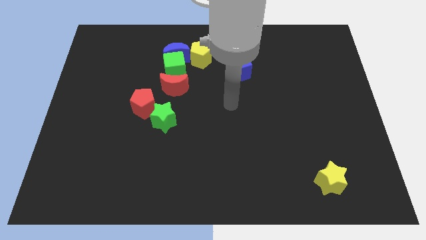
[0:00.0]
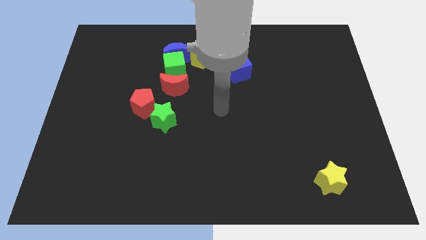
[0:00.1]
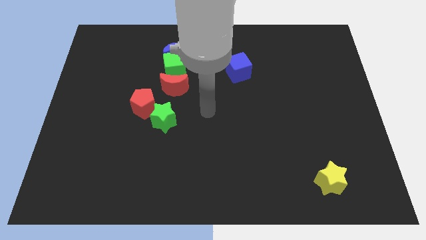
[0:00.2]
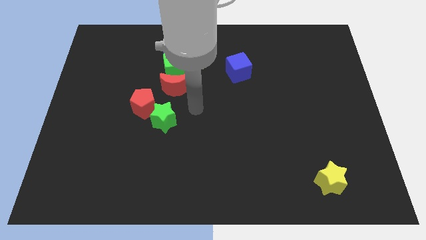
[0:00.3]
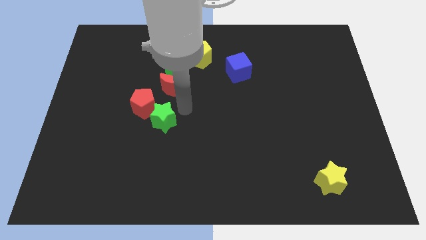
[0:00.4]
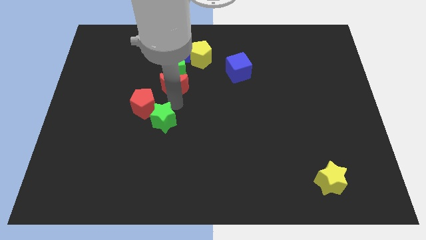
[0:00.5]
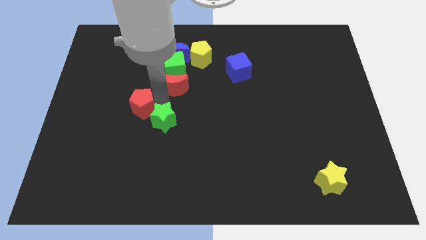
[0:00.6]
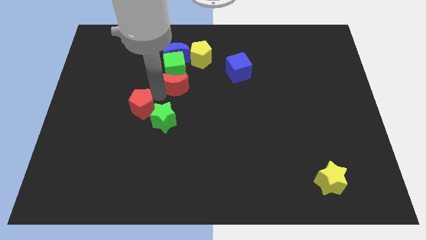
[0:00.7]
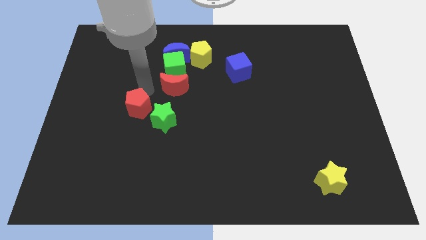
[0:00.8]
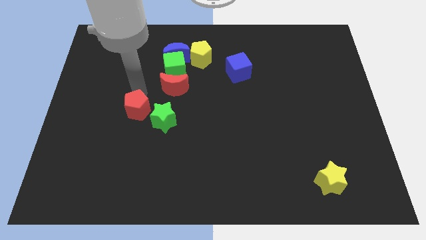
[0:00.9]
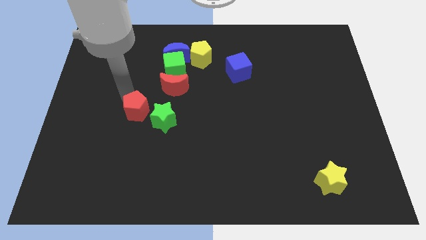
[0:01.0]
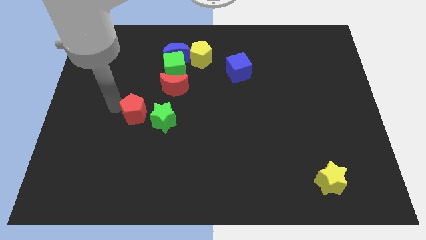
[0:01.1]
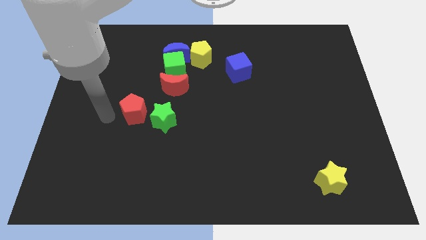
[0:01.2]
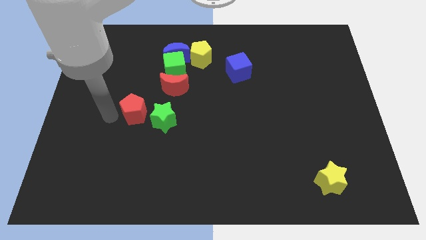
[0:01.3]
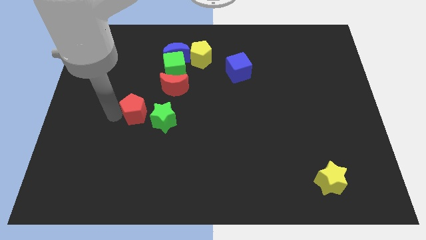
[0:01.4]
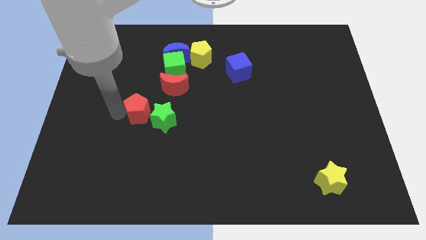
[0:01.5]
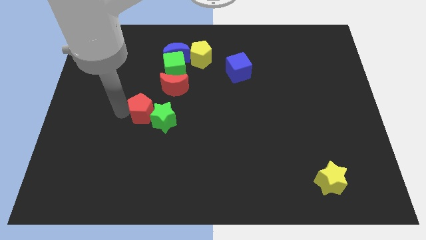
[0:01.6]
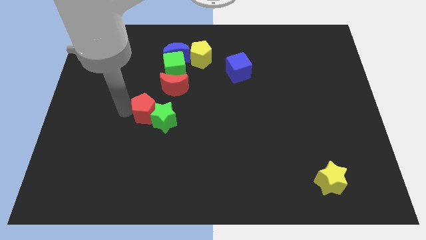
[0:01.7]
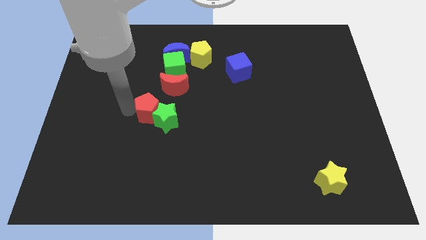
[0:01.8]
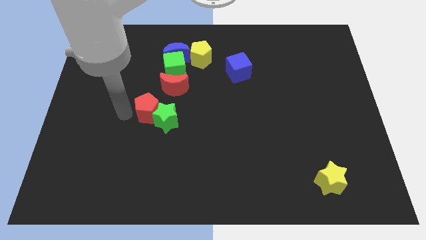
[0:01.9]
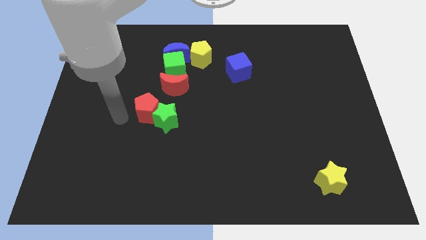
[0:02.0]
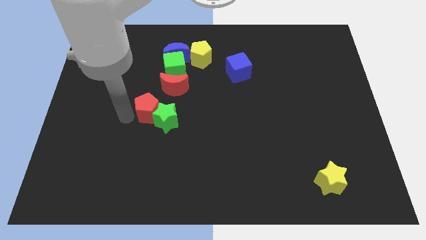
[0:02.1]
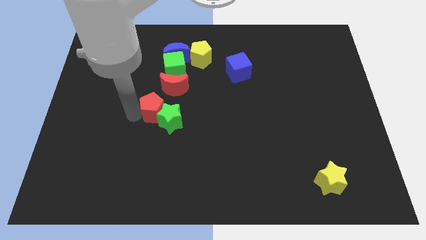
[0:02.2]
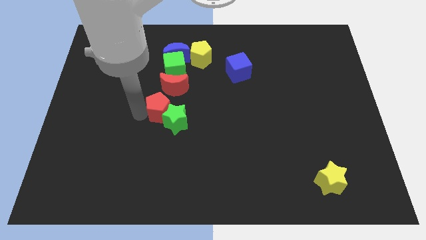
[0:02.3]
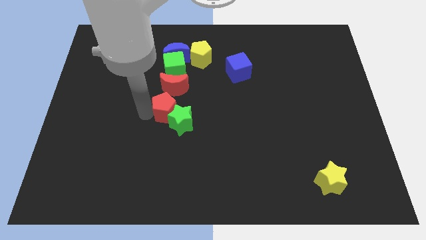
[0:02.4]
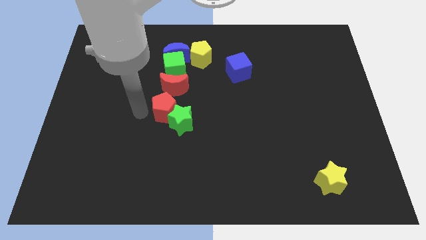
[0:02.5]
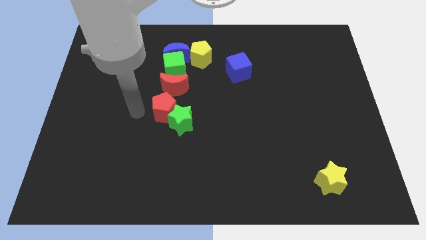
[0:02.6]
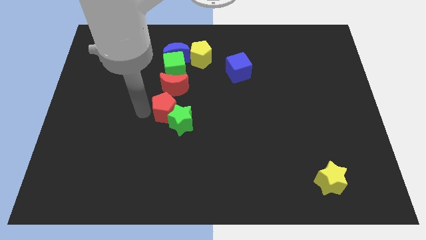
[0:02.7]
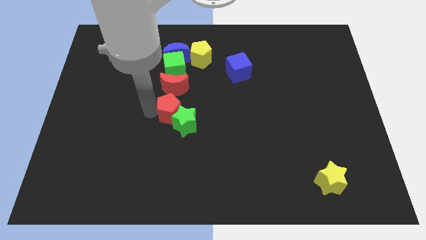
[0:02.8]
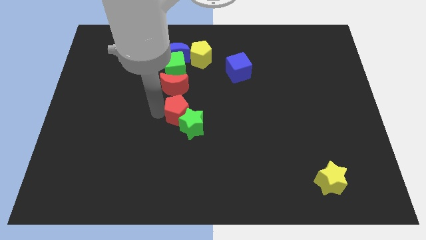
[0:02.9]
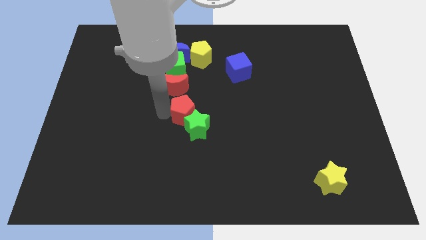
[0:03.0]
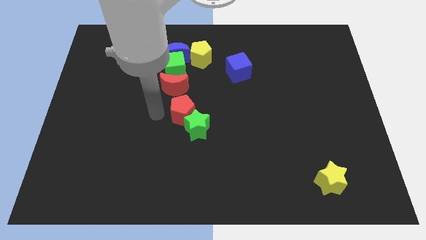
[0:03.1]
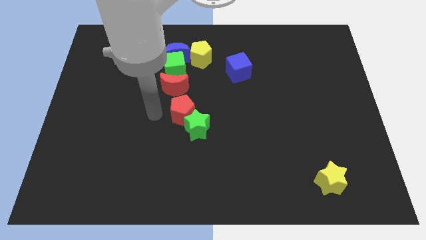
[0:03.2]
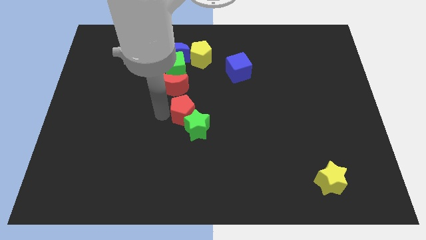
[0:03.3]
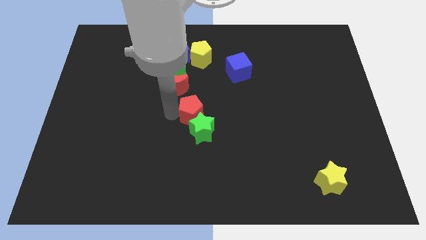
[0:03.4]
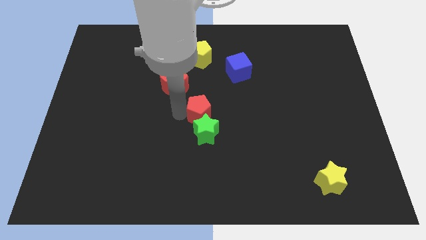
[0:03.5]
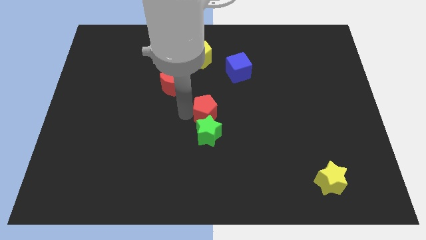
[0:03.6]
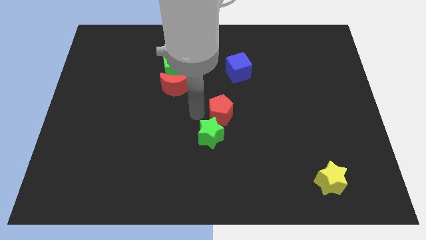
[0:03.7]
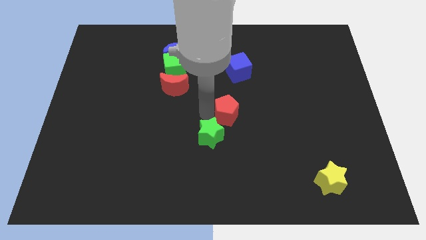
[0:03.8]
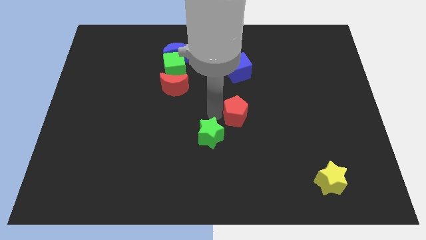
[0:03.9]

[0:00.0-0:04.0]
slide the red pentagon to the right

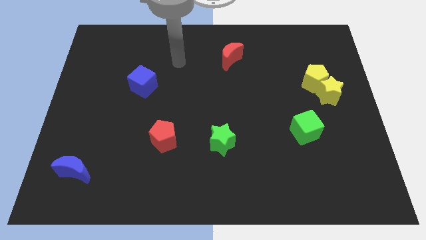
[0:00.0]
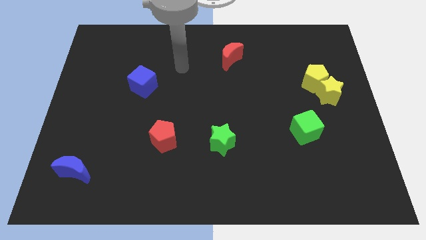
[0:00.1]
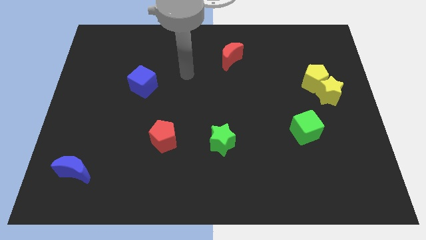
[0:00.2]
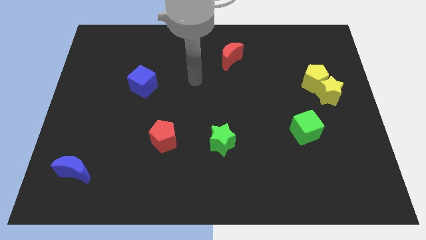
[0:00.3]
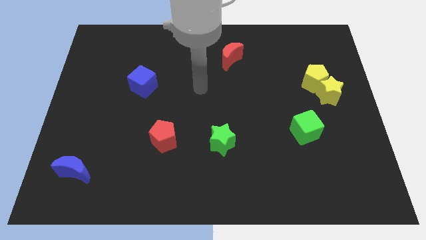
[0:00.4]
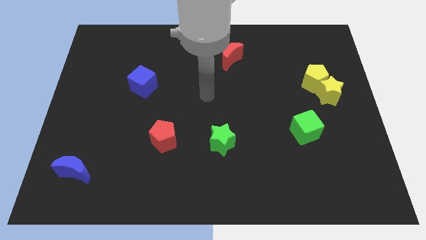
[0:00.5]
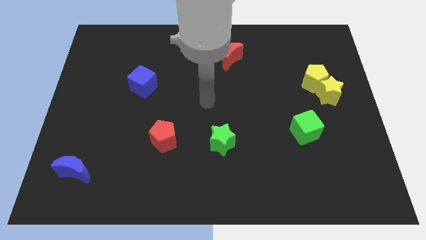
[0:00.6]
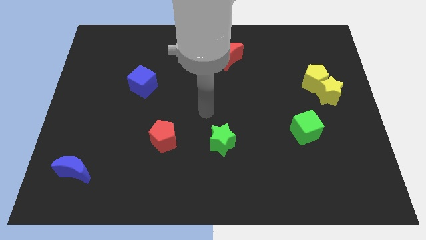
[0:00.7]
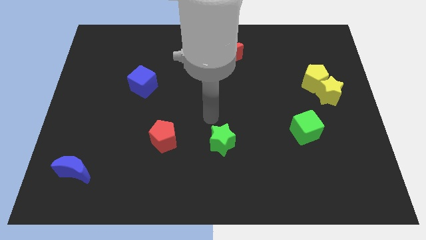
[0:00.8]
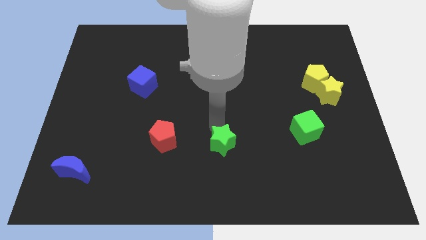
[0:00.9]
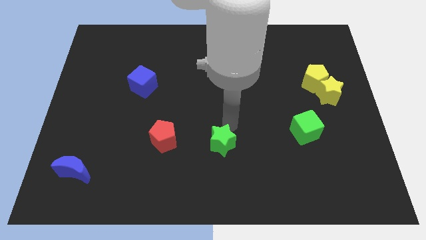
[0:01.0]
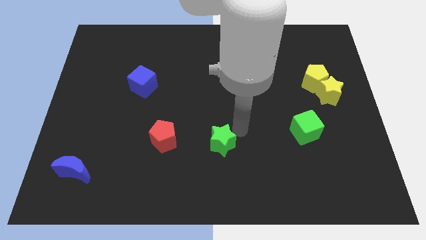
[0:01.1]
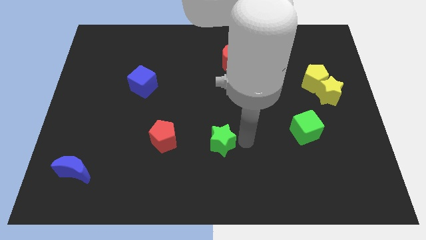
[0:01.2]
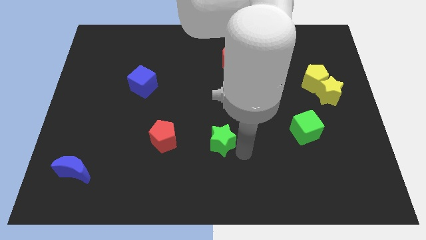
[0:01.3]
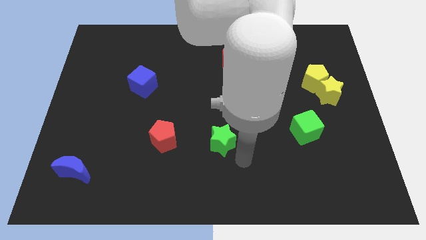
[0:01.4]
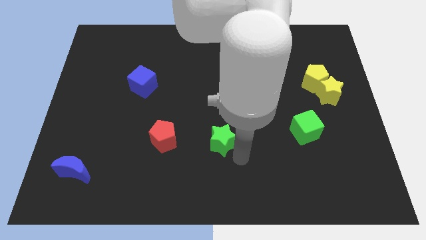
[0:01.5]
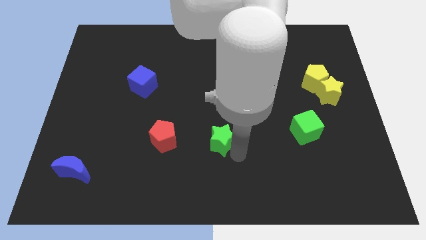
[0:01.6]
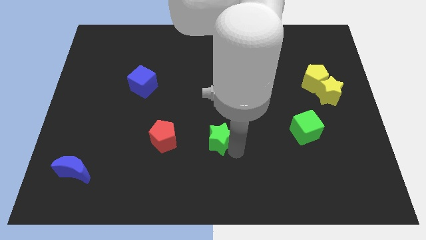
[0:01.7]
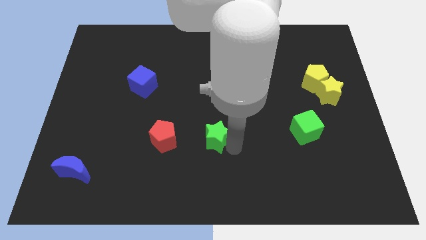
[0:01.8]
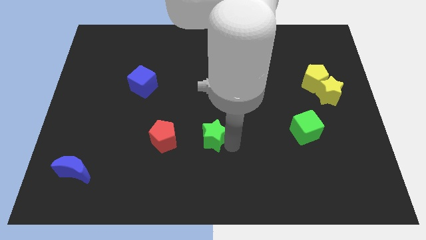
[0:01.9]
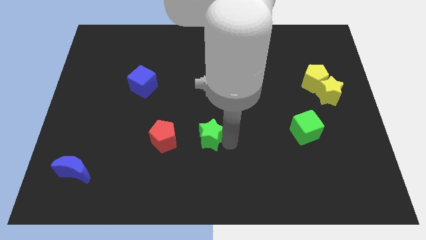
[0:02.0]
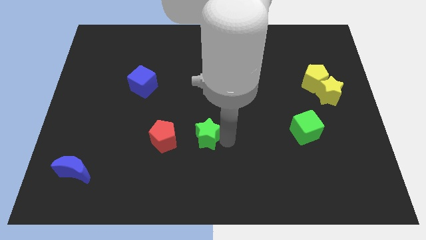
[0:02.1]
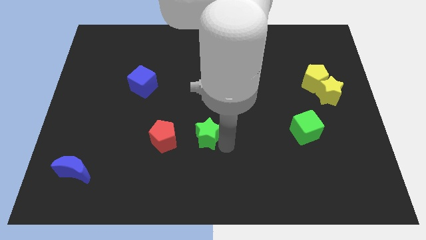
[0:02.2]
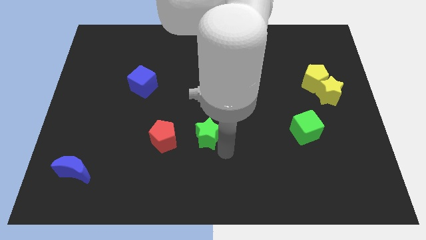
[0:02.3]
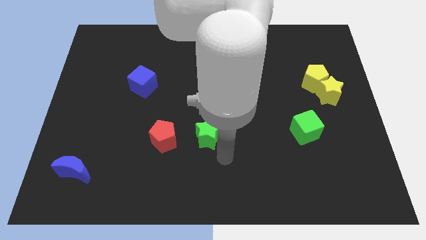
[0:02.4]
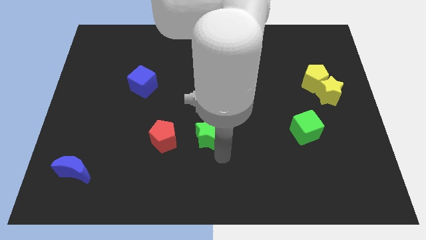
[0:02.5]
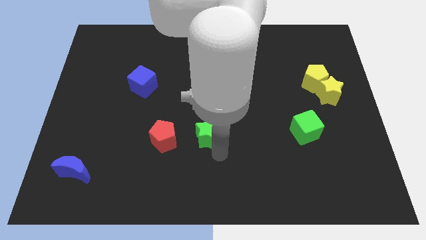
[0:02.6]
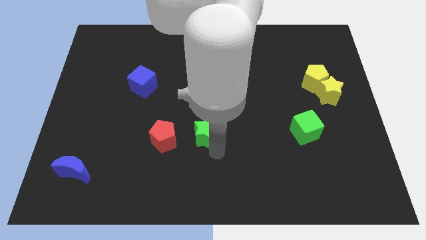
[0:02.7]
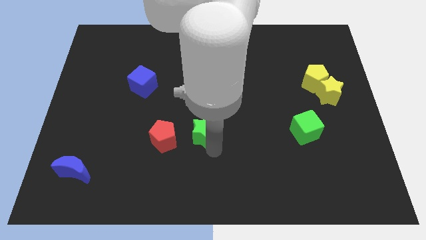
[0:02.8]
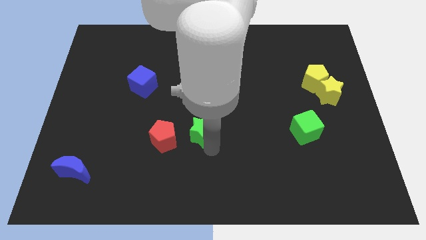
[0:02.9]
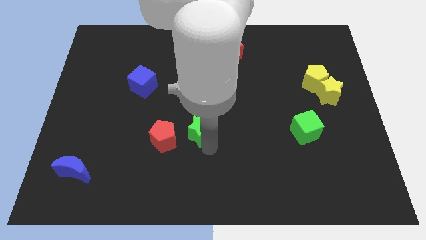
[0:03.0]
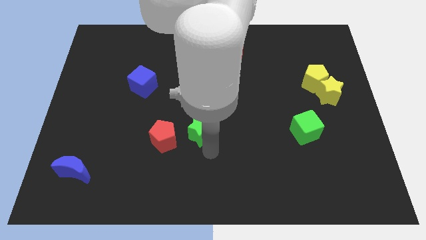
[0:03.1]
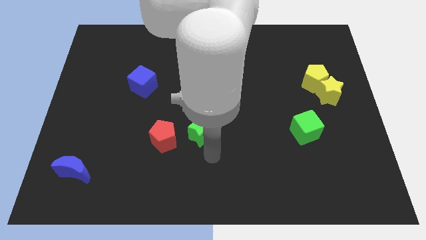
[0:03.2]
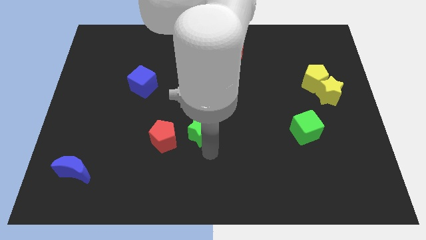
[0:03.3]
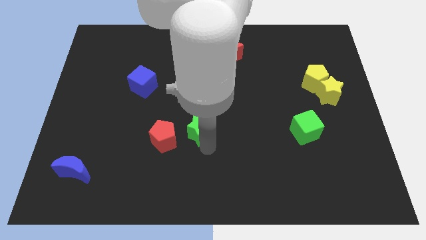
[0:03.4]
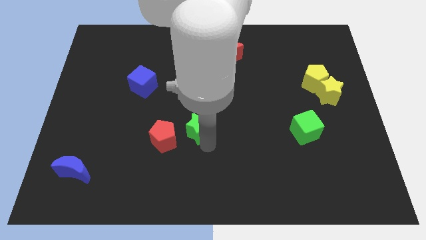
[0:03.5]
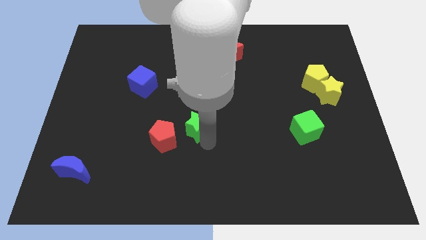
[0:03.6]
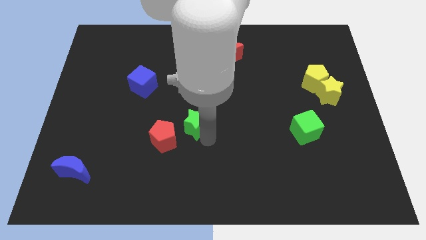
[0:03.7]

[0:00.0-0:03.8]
slide the green star up and left diagonally a little

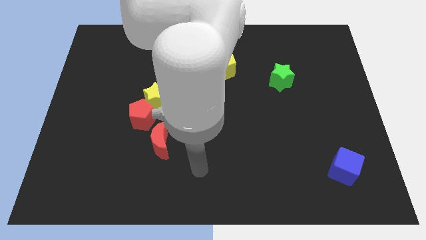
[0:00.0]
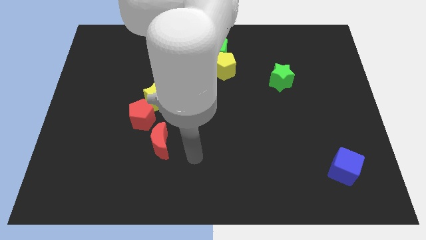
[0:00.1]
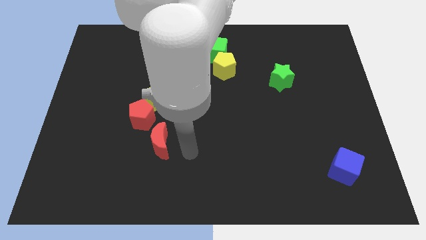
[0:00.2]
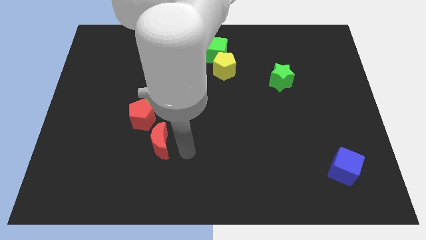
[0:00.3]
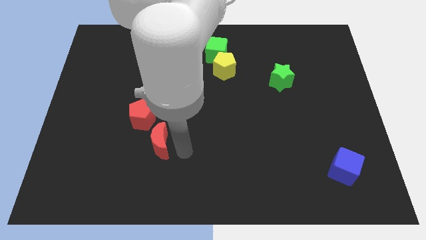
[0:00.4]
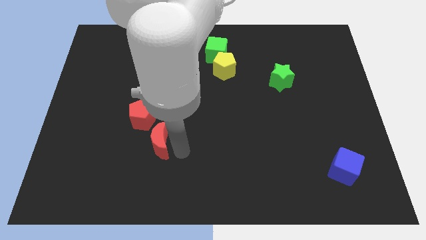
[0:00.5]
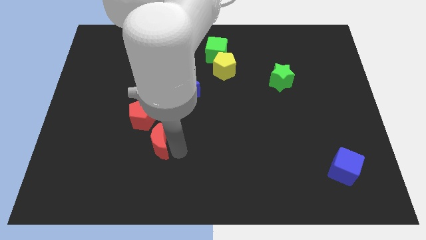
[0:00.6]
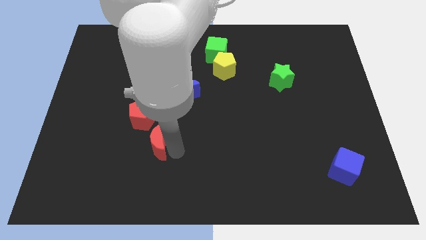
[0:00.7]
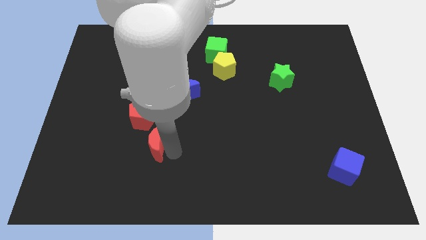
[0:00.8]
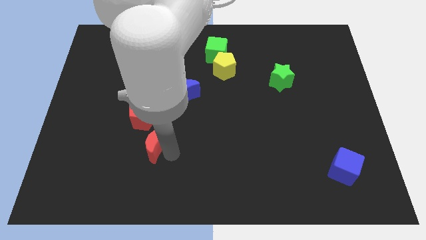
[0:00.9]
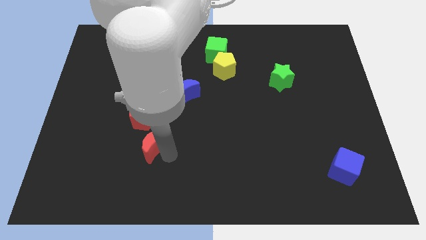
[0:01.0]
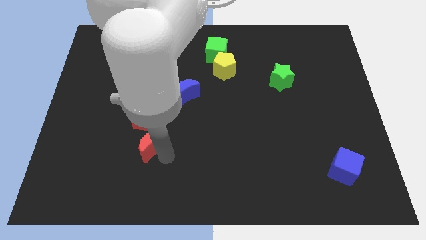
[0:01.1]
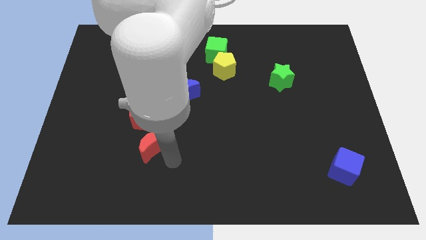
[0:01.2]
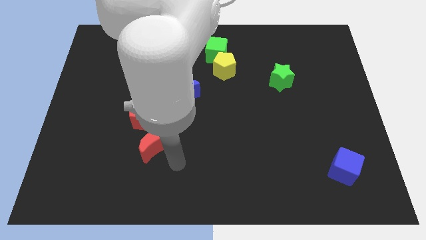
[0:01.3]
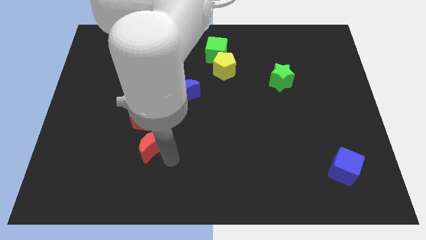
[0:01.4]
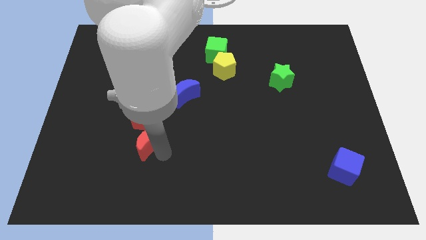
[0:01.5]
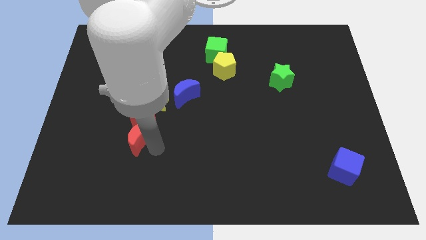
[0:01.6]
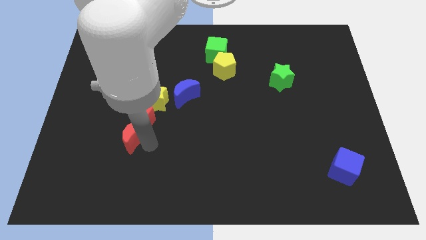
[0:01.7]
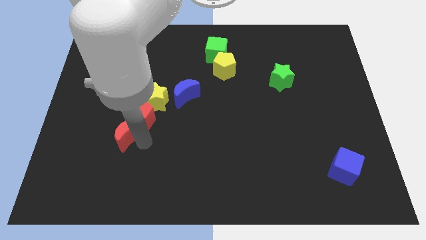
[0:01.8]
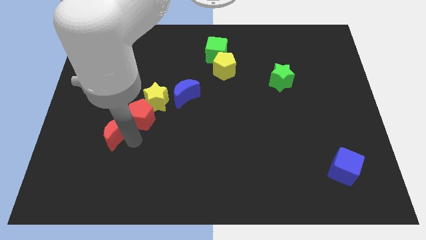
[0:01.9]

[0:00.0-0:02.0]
slightly move the red moon upwards and left diagonally
